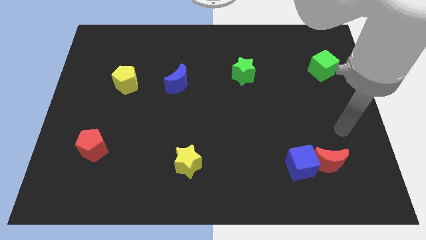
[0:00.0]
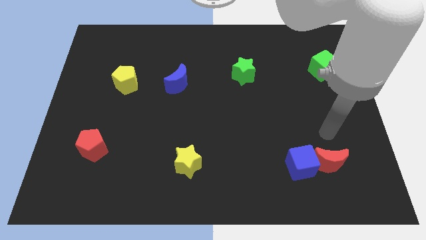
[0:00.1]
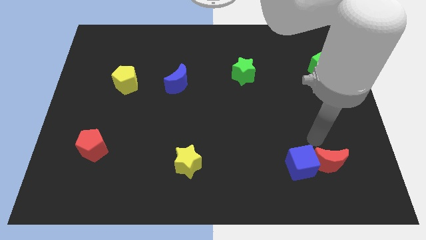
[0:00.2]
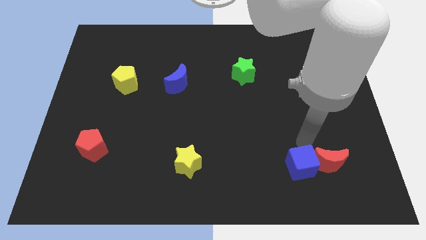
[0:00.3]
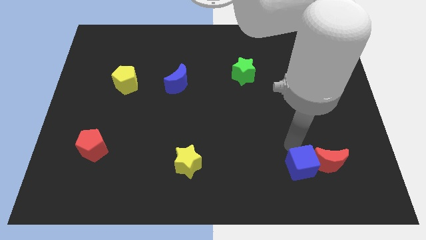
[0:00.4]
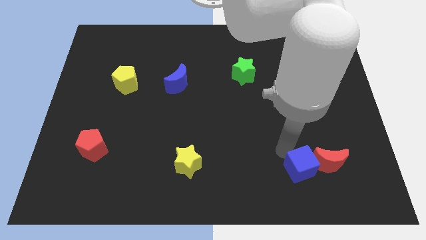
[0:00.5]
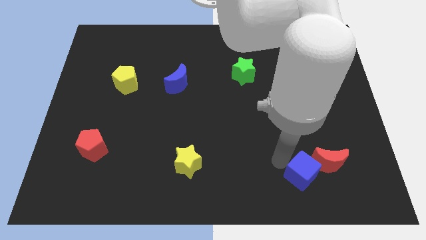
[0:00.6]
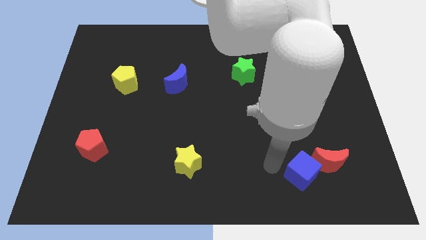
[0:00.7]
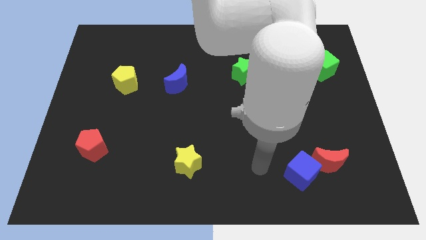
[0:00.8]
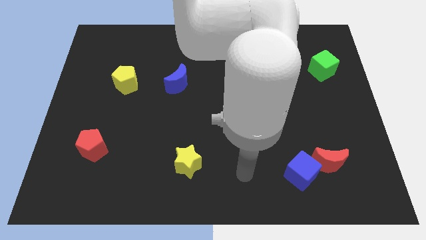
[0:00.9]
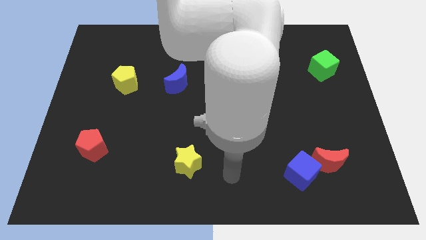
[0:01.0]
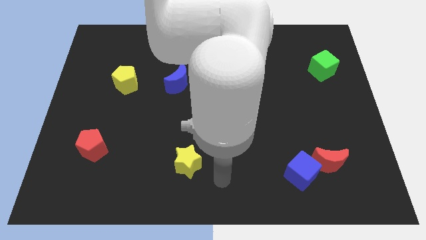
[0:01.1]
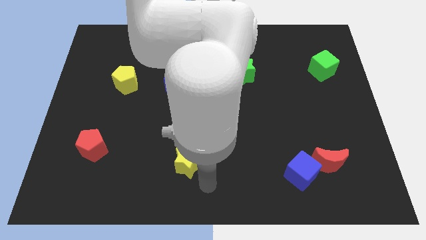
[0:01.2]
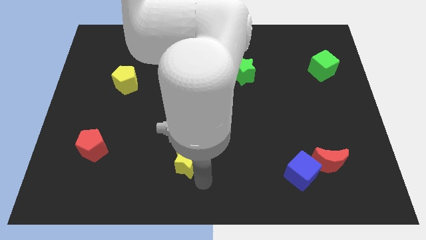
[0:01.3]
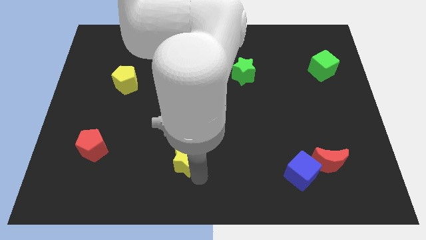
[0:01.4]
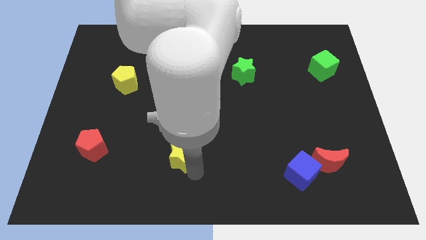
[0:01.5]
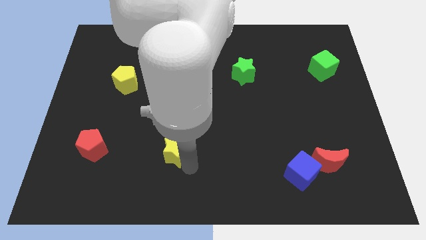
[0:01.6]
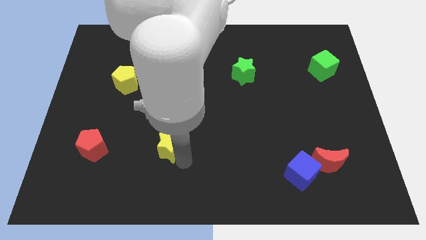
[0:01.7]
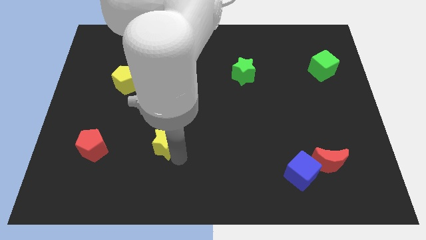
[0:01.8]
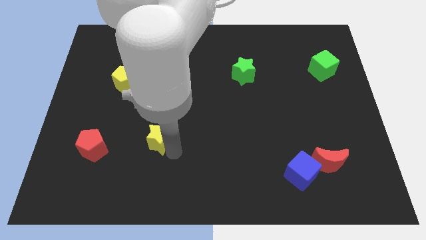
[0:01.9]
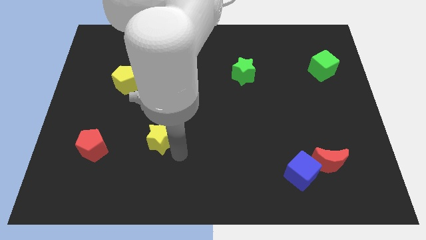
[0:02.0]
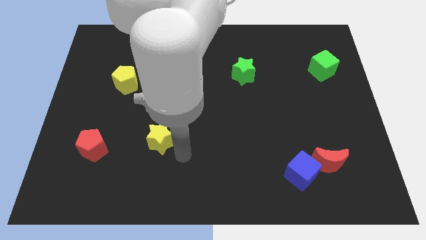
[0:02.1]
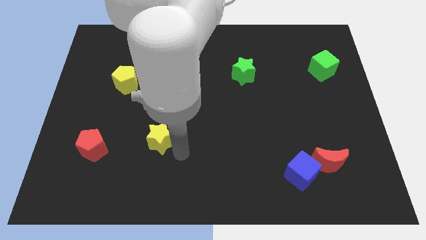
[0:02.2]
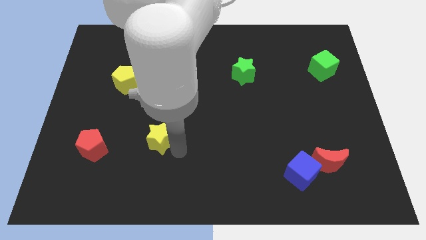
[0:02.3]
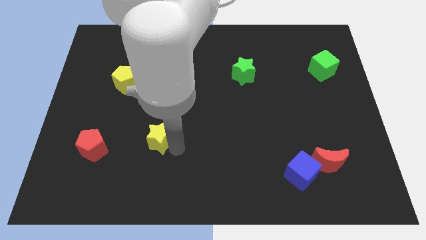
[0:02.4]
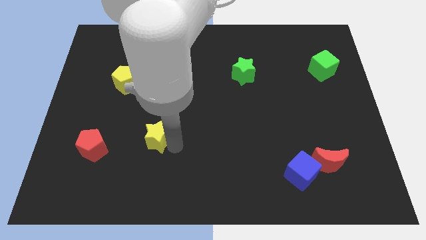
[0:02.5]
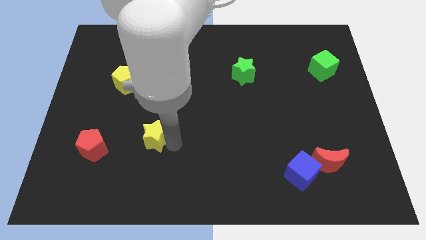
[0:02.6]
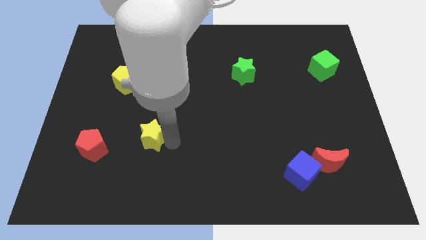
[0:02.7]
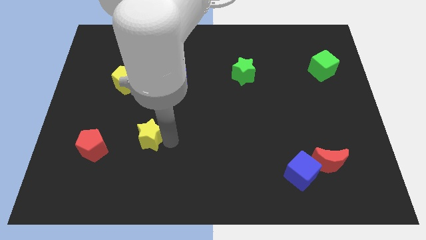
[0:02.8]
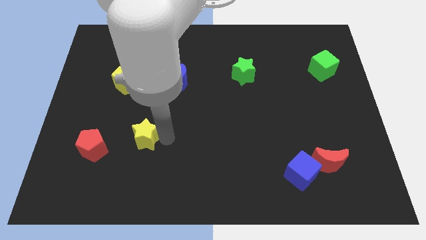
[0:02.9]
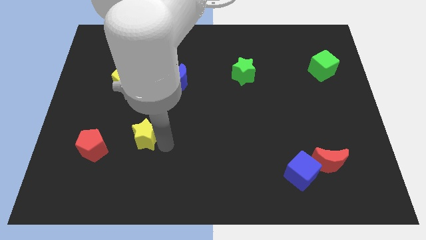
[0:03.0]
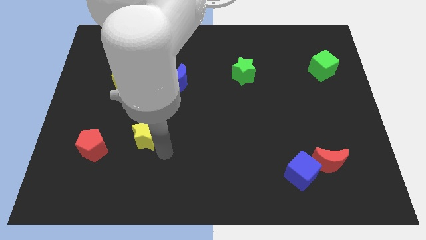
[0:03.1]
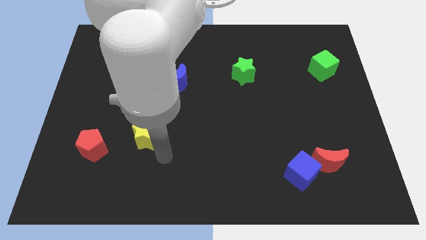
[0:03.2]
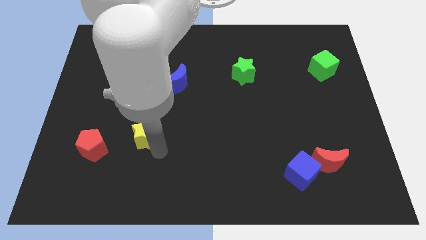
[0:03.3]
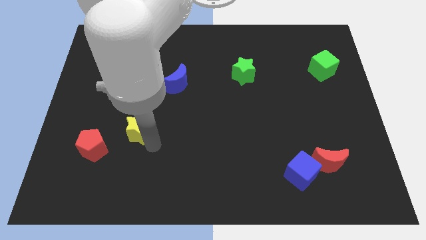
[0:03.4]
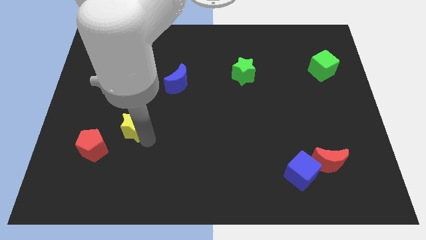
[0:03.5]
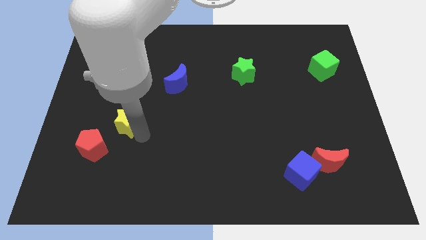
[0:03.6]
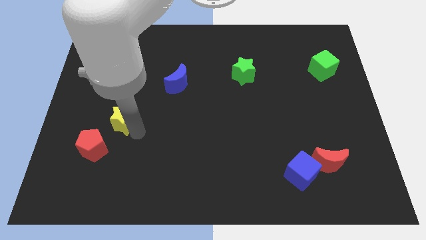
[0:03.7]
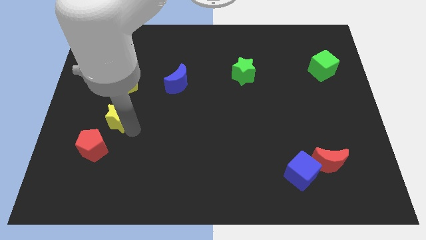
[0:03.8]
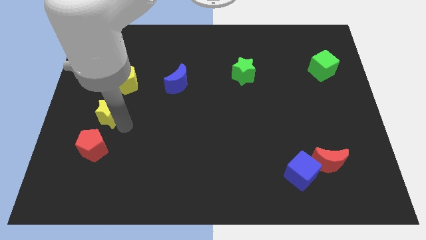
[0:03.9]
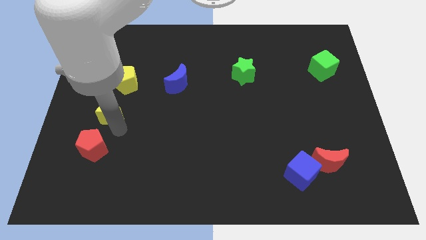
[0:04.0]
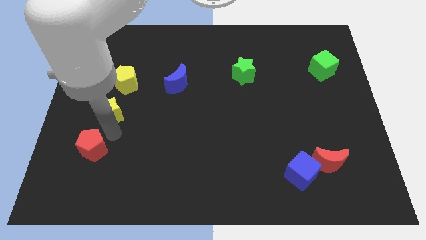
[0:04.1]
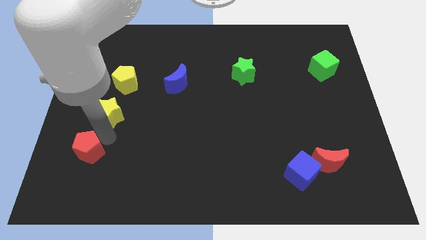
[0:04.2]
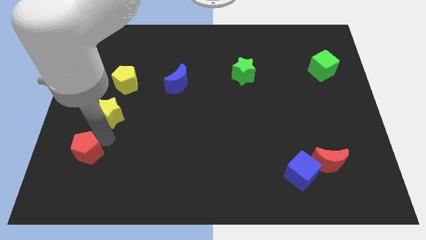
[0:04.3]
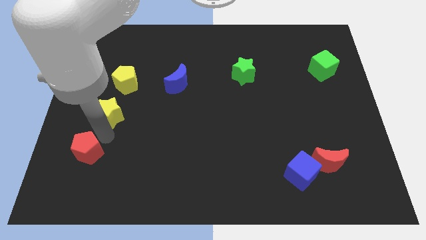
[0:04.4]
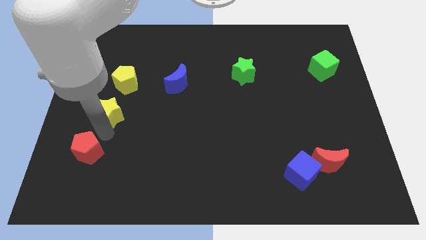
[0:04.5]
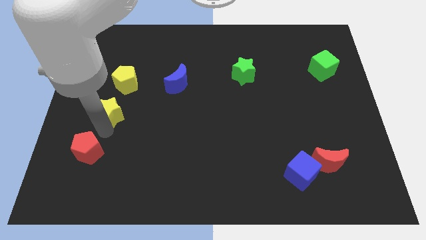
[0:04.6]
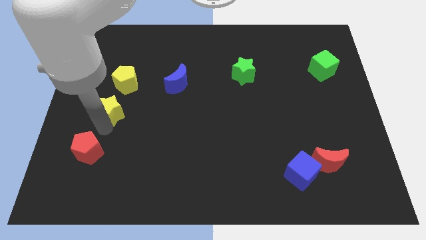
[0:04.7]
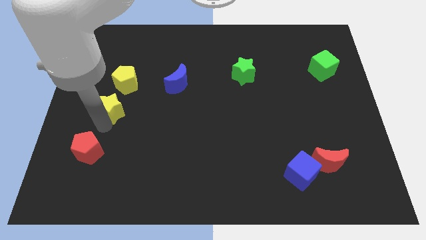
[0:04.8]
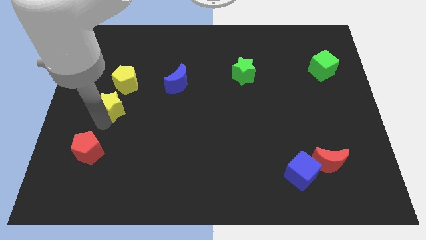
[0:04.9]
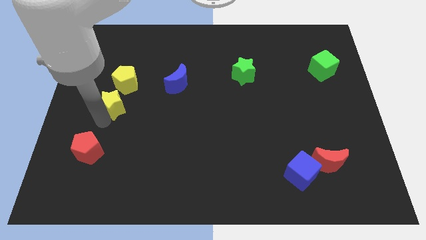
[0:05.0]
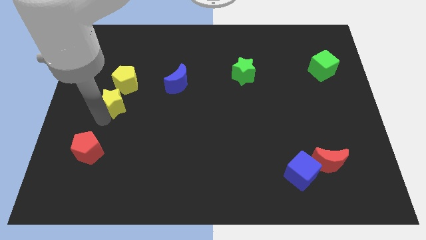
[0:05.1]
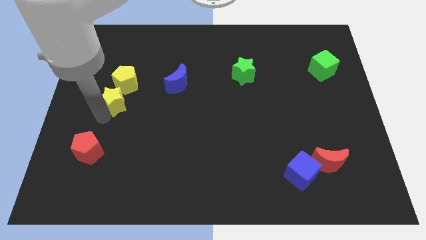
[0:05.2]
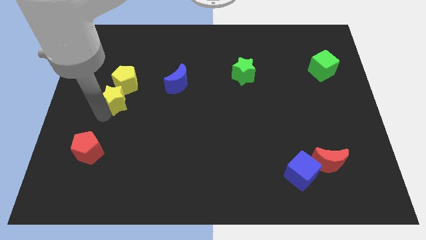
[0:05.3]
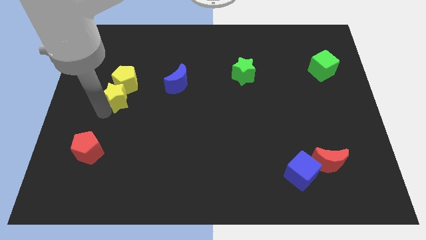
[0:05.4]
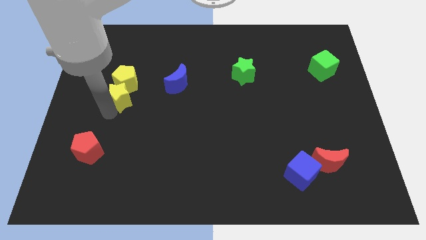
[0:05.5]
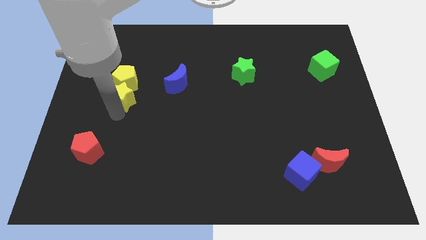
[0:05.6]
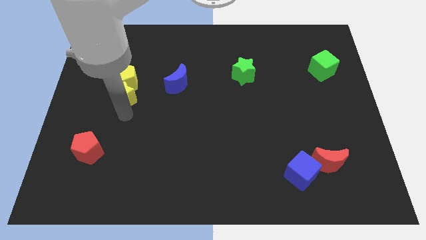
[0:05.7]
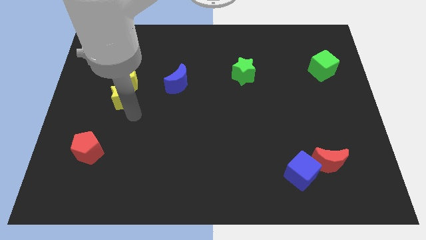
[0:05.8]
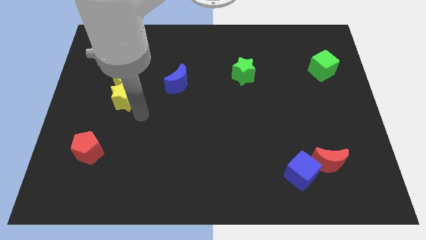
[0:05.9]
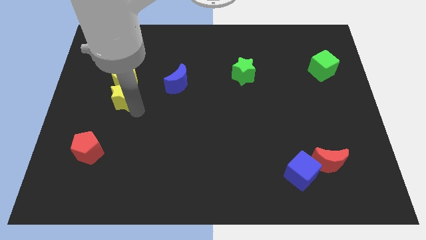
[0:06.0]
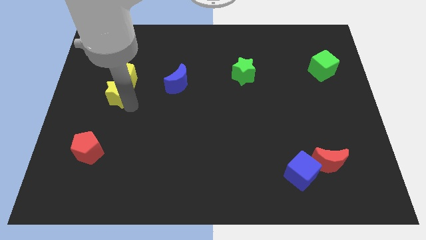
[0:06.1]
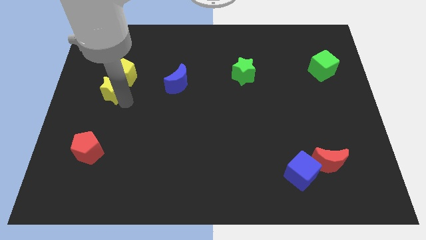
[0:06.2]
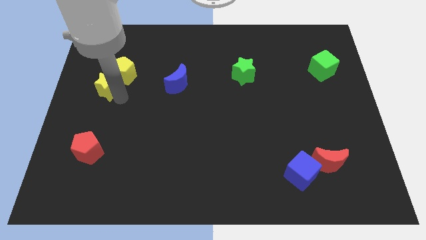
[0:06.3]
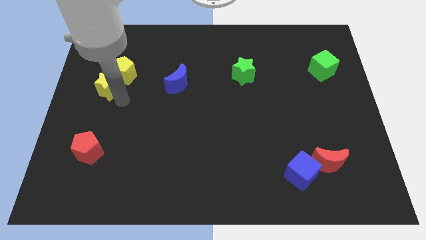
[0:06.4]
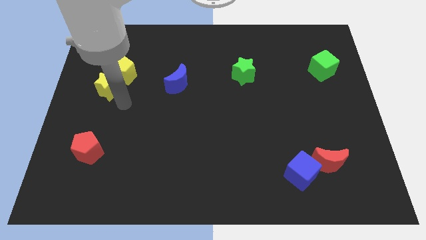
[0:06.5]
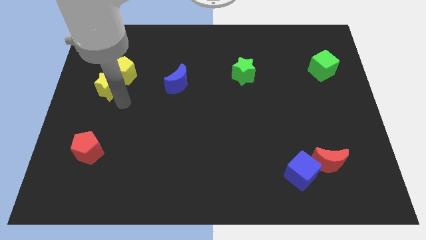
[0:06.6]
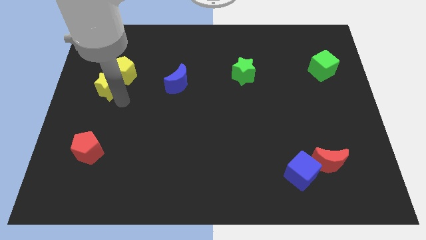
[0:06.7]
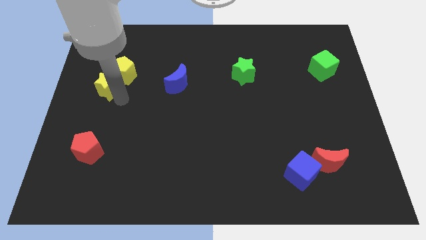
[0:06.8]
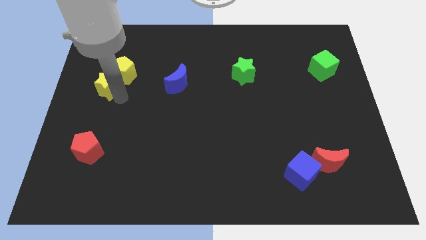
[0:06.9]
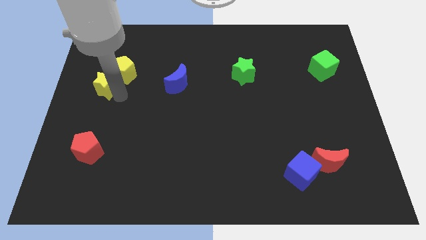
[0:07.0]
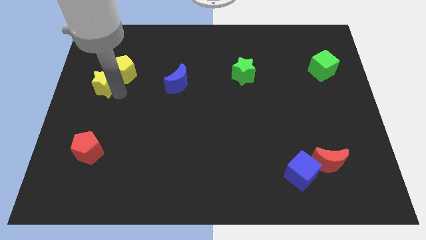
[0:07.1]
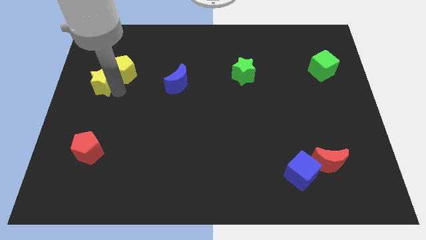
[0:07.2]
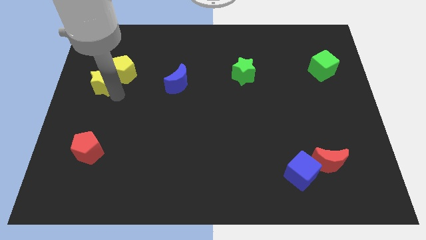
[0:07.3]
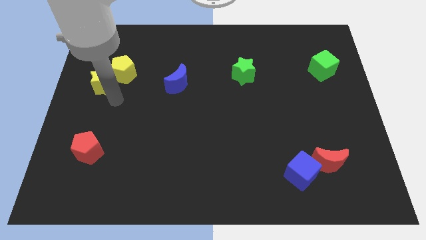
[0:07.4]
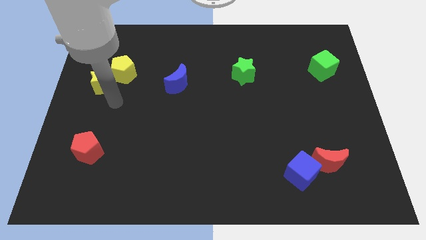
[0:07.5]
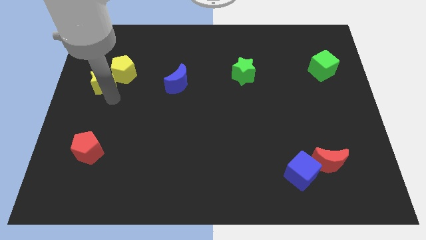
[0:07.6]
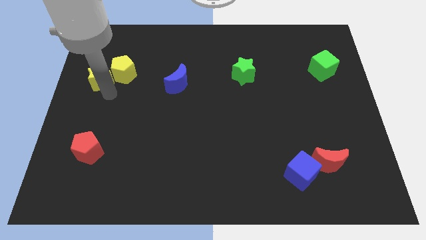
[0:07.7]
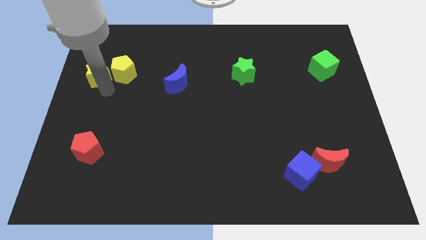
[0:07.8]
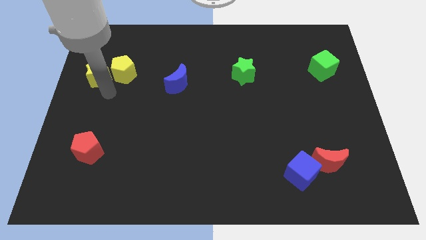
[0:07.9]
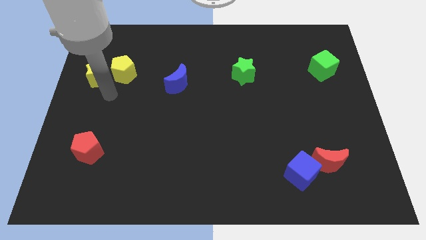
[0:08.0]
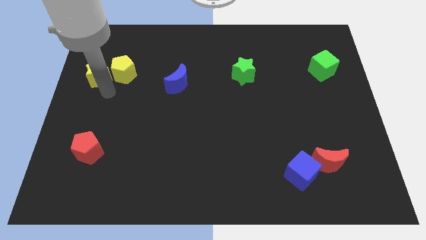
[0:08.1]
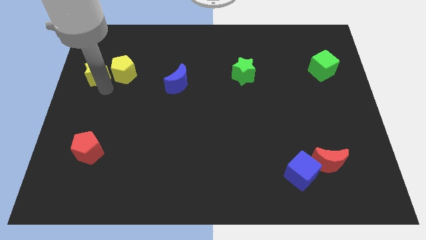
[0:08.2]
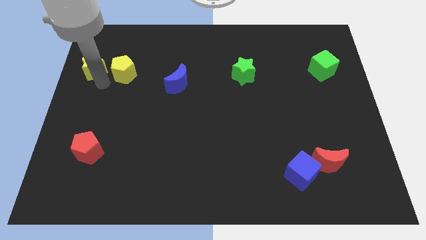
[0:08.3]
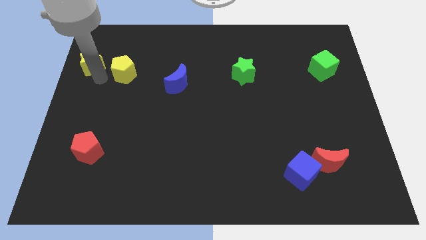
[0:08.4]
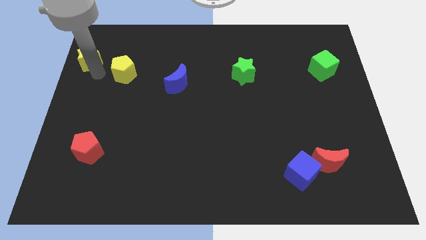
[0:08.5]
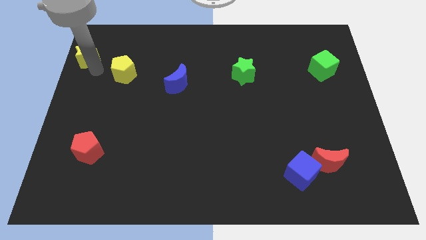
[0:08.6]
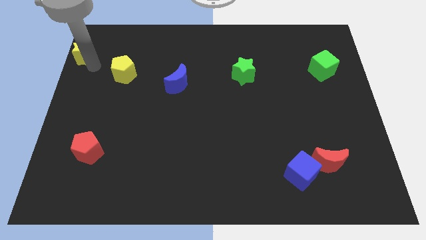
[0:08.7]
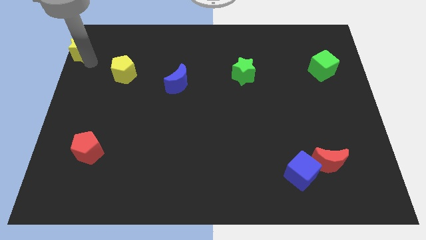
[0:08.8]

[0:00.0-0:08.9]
push the yellow star to the top left of the board
